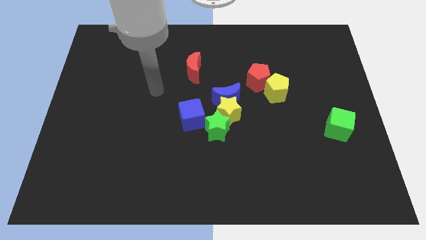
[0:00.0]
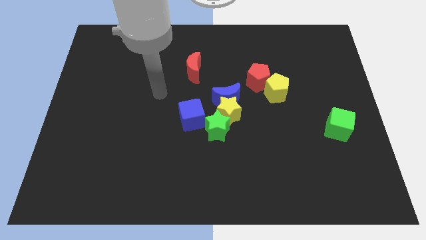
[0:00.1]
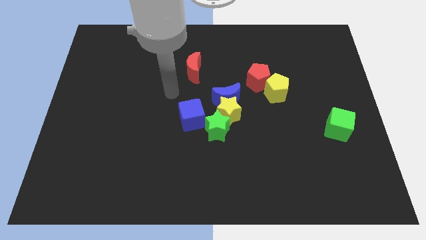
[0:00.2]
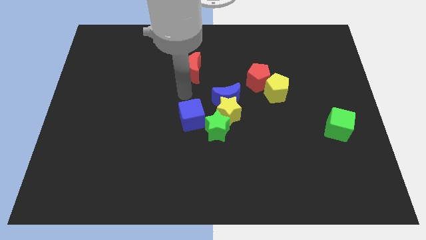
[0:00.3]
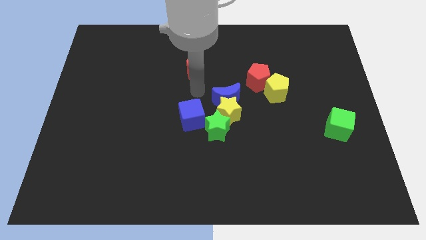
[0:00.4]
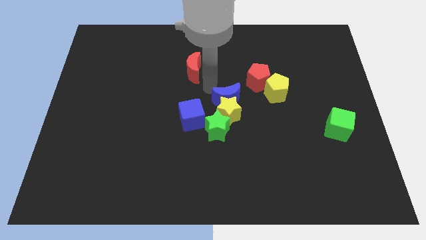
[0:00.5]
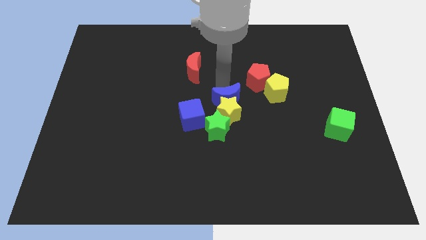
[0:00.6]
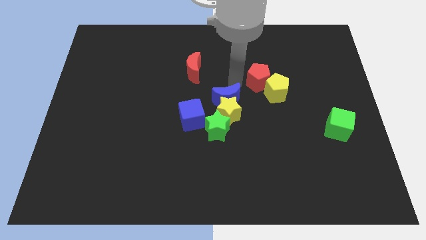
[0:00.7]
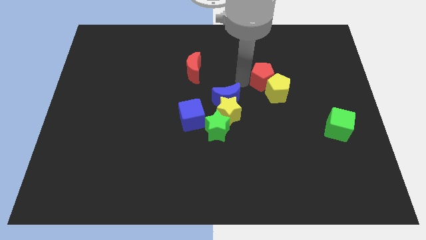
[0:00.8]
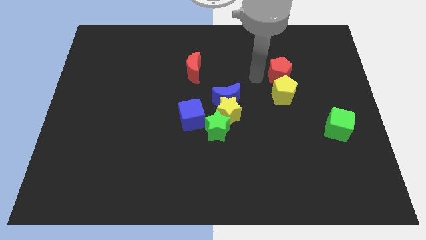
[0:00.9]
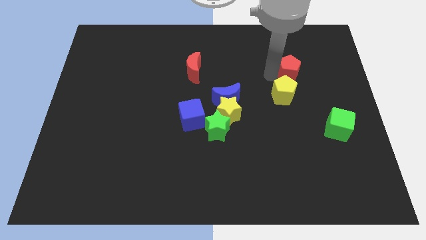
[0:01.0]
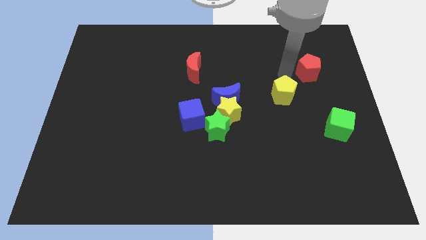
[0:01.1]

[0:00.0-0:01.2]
move the yellow pentagon away from the red pentagon

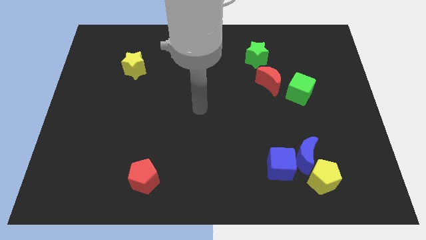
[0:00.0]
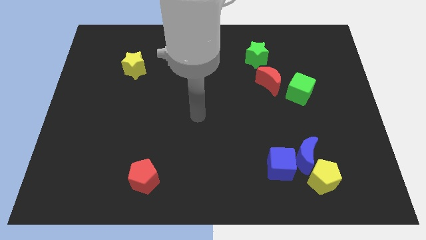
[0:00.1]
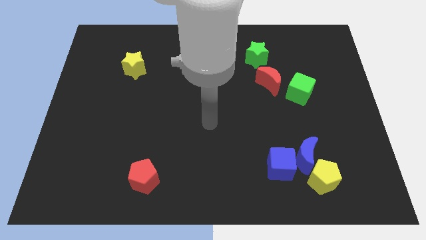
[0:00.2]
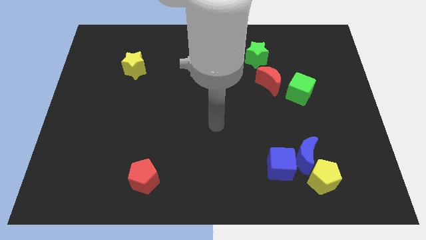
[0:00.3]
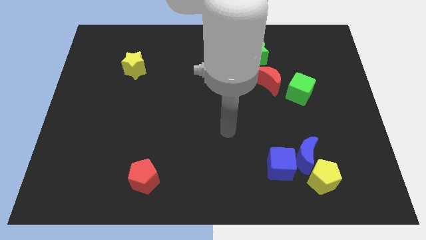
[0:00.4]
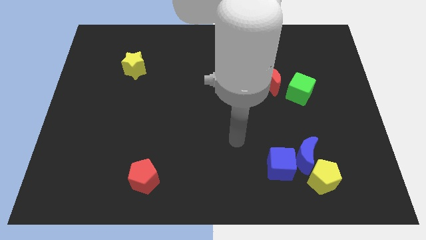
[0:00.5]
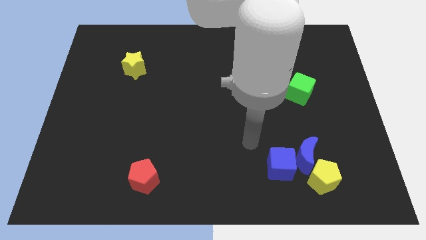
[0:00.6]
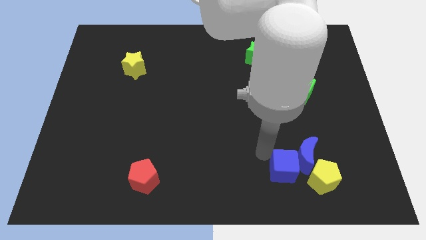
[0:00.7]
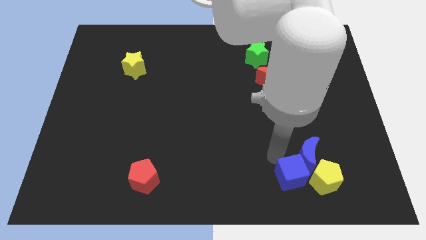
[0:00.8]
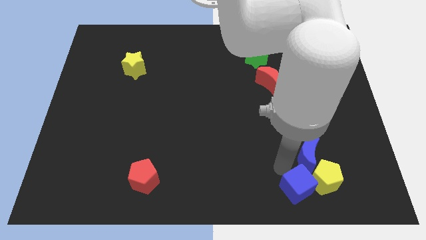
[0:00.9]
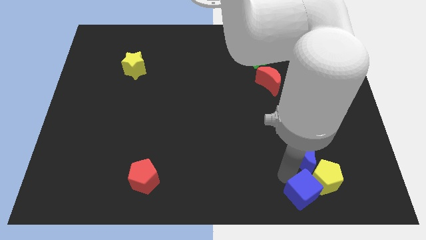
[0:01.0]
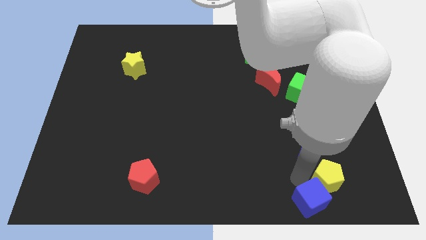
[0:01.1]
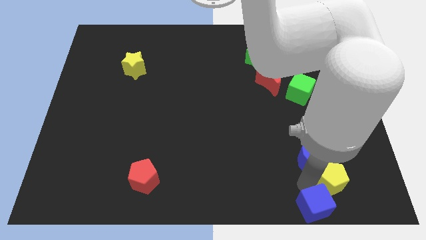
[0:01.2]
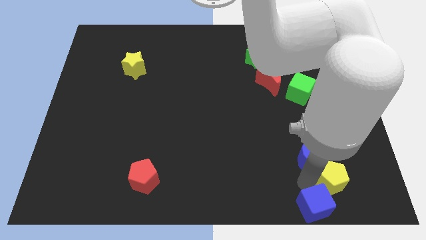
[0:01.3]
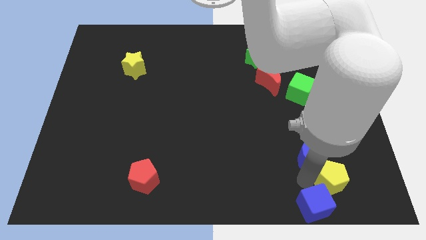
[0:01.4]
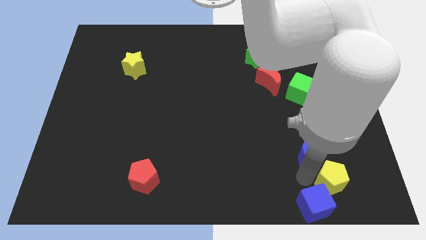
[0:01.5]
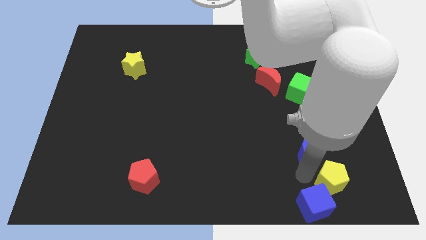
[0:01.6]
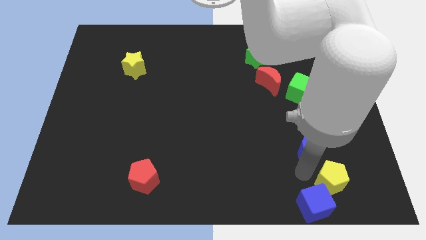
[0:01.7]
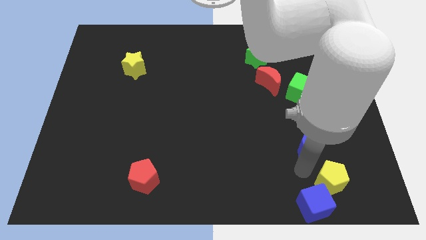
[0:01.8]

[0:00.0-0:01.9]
move the blue moon away from the blue cube and yellow pentagon

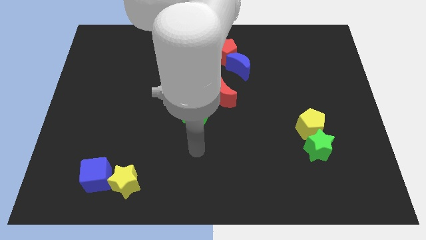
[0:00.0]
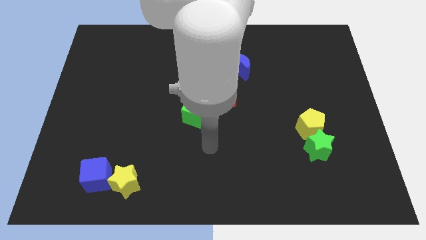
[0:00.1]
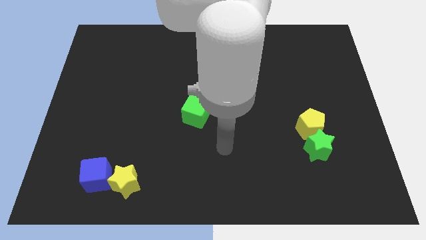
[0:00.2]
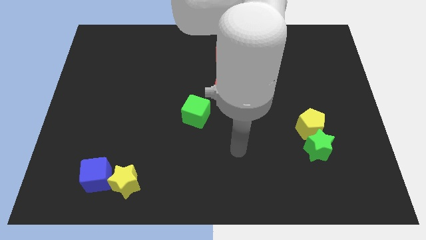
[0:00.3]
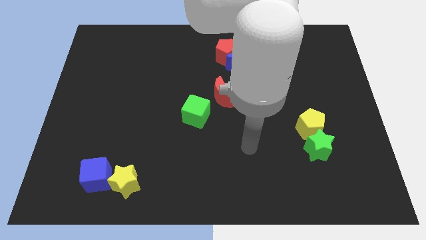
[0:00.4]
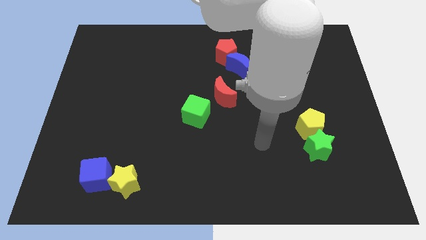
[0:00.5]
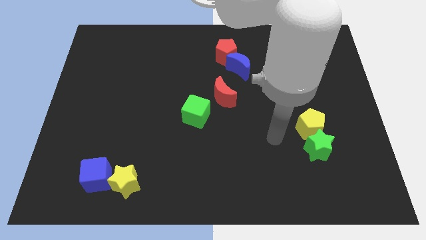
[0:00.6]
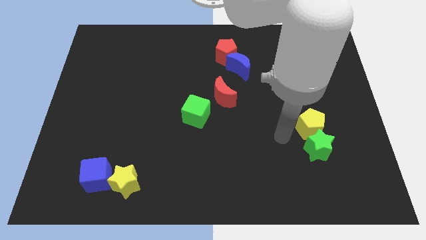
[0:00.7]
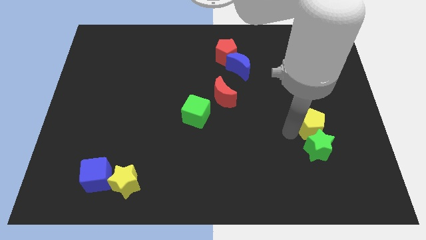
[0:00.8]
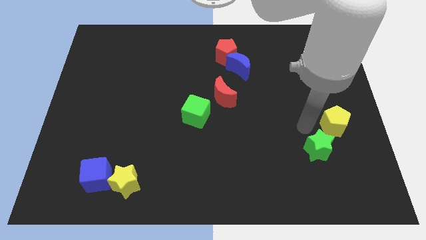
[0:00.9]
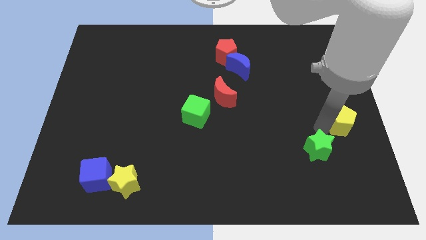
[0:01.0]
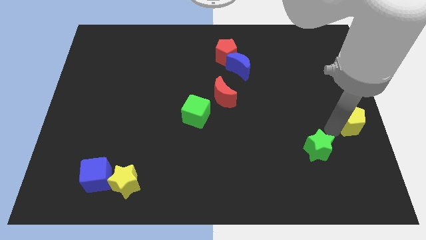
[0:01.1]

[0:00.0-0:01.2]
pull the green star apart from the yellow pentagon

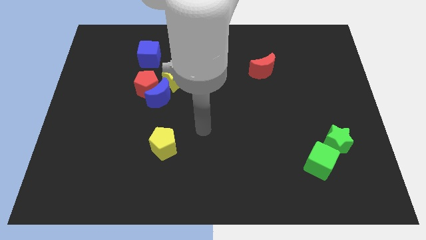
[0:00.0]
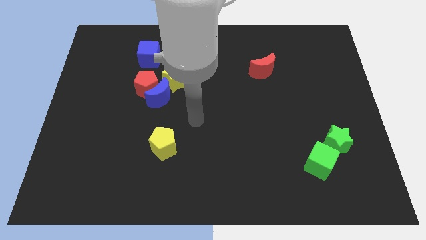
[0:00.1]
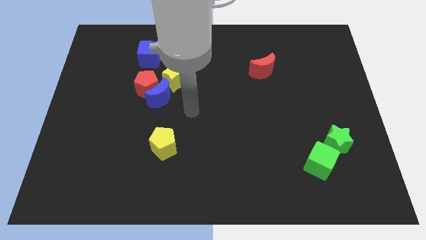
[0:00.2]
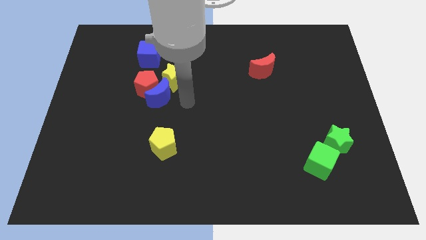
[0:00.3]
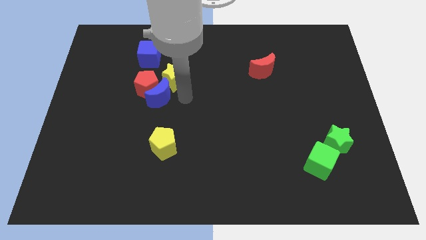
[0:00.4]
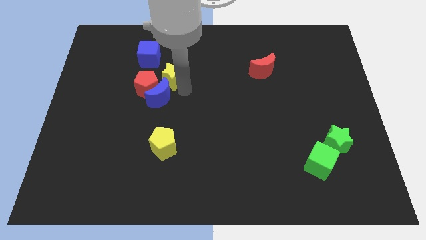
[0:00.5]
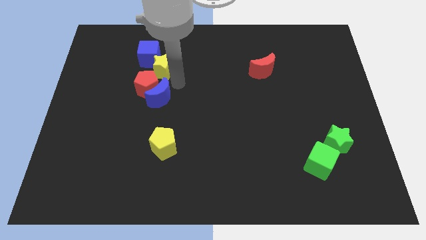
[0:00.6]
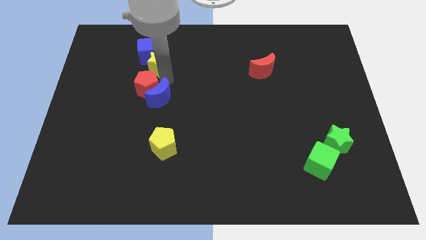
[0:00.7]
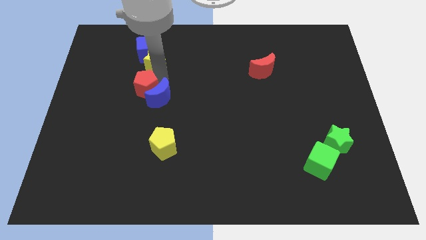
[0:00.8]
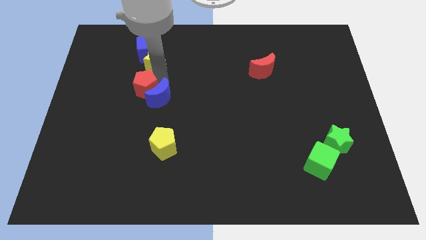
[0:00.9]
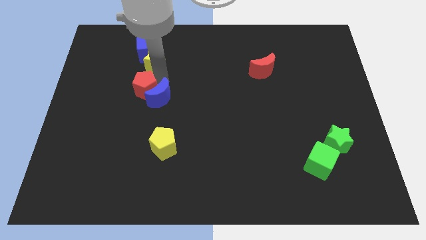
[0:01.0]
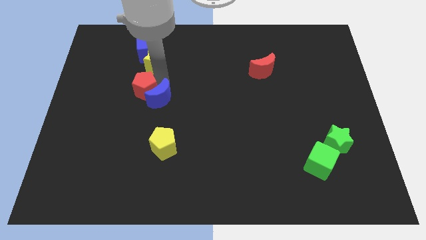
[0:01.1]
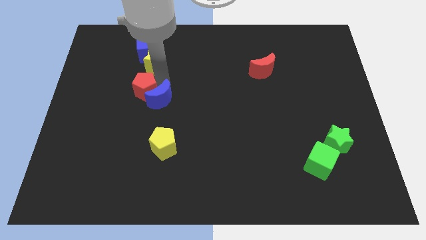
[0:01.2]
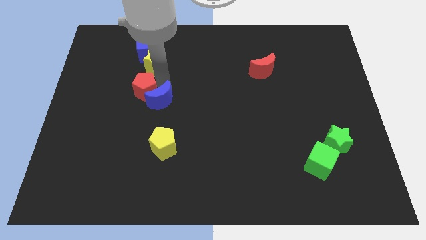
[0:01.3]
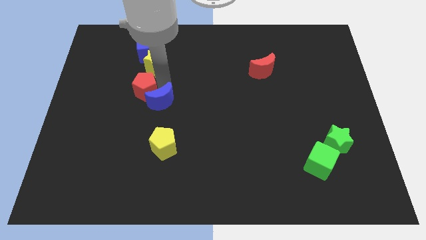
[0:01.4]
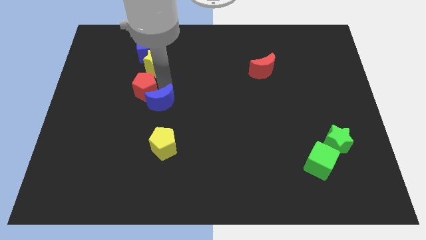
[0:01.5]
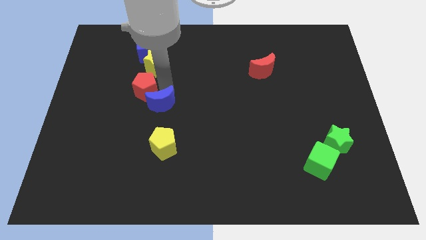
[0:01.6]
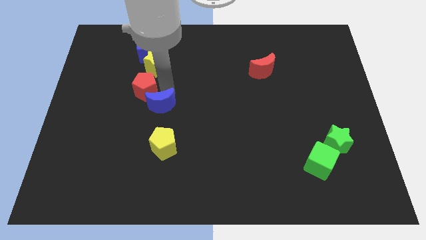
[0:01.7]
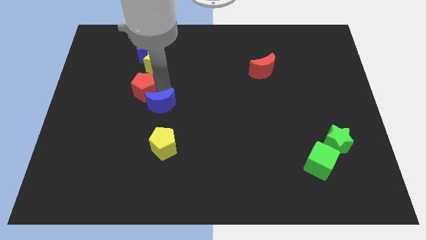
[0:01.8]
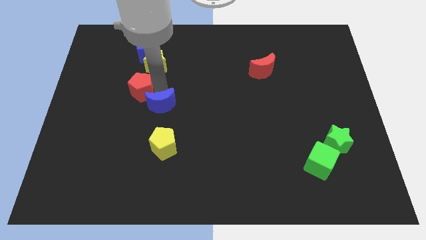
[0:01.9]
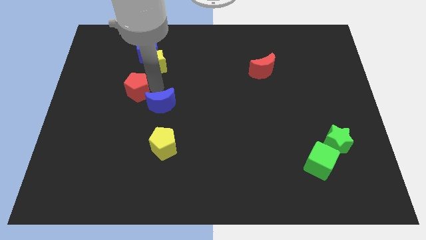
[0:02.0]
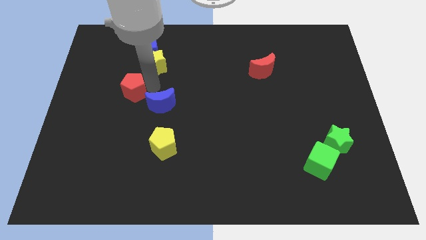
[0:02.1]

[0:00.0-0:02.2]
separate the blue moon from the red pentagon and yellow star

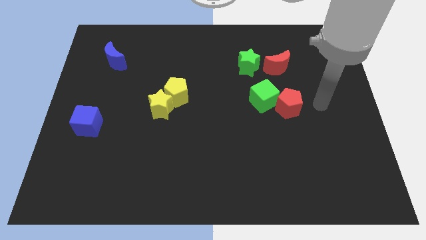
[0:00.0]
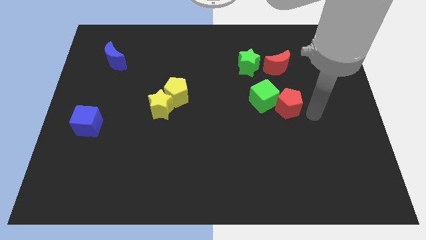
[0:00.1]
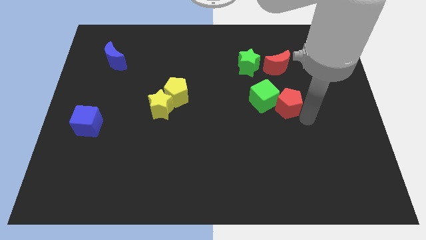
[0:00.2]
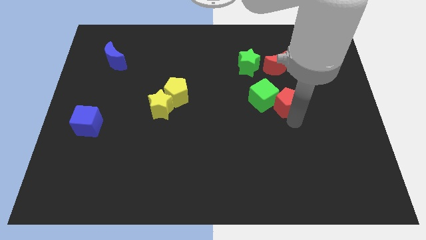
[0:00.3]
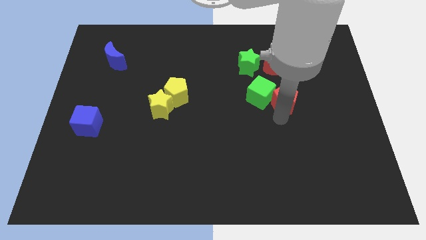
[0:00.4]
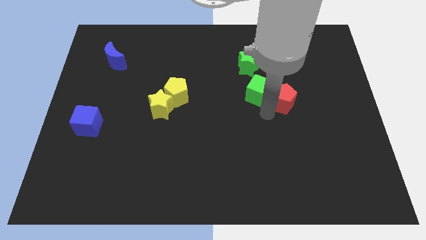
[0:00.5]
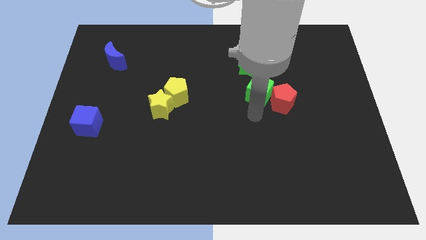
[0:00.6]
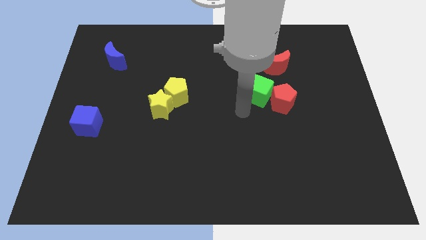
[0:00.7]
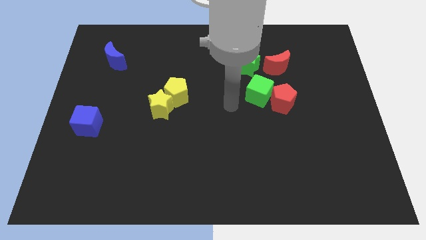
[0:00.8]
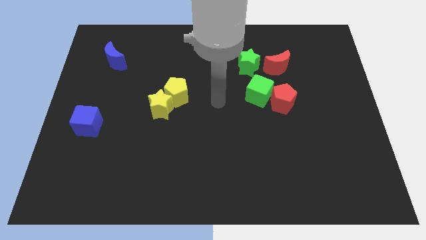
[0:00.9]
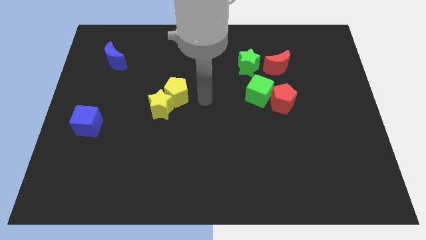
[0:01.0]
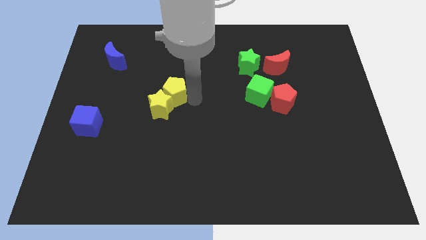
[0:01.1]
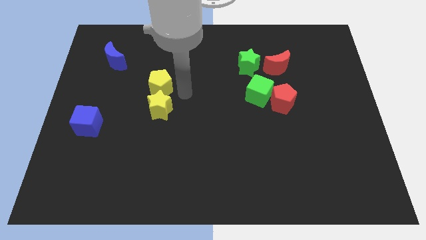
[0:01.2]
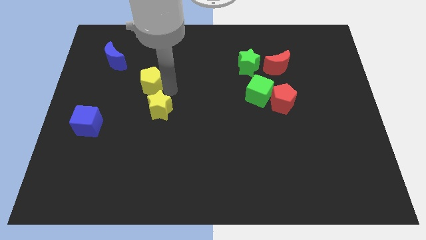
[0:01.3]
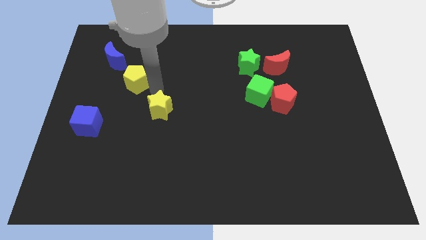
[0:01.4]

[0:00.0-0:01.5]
separate the yellow star from the yellow pentagon

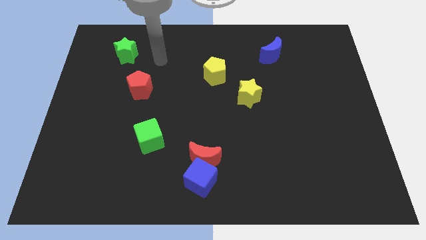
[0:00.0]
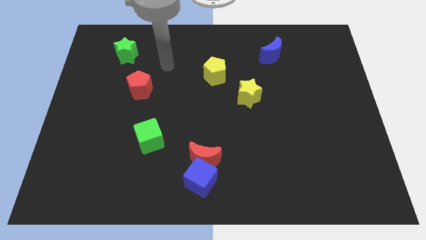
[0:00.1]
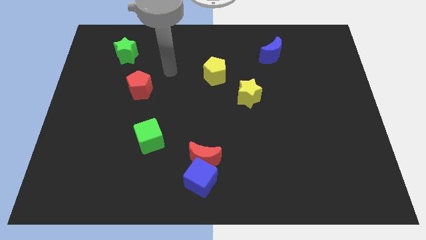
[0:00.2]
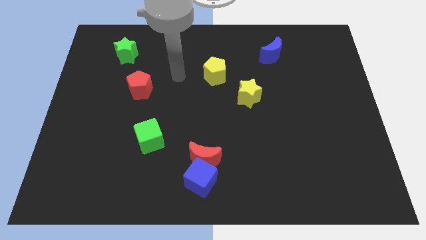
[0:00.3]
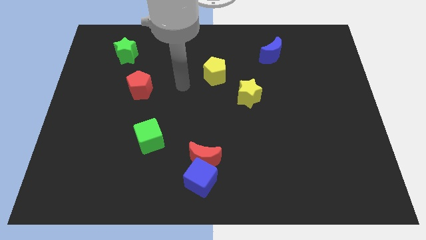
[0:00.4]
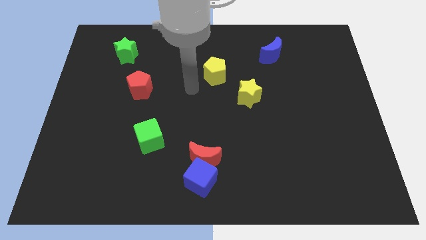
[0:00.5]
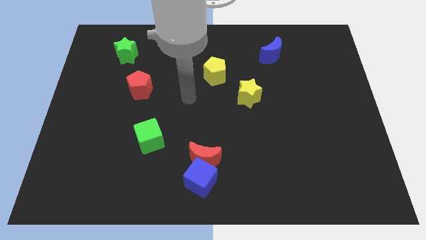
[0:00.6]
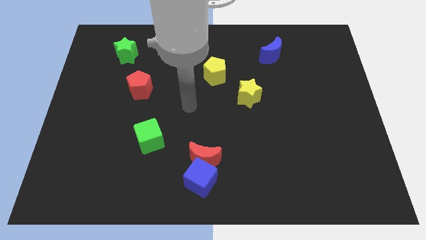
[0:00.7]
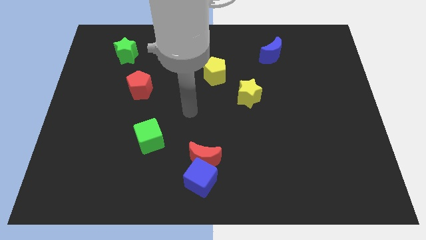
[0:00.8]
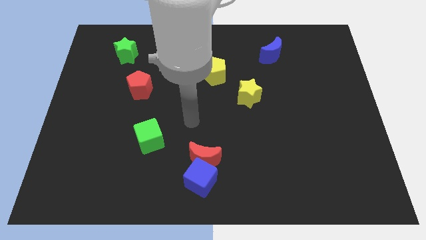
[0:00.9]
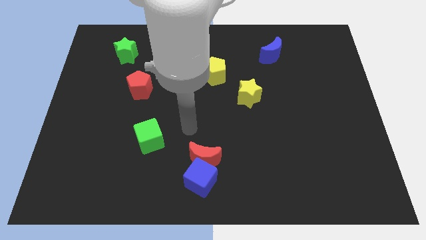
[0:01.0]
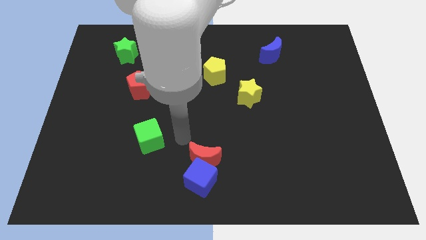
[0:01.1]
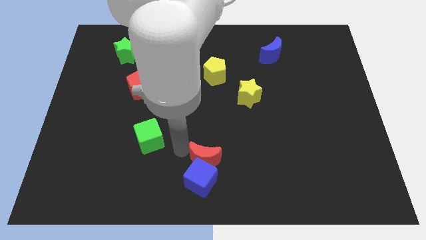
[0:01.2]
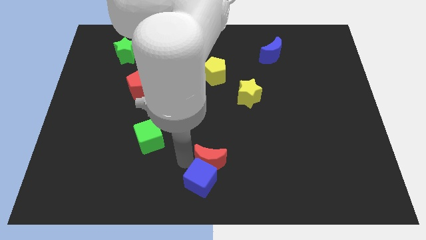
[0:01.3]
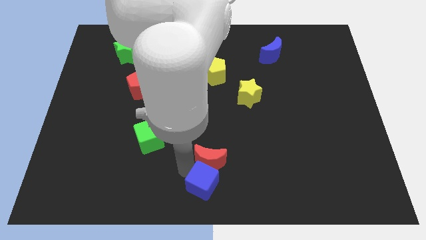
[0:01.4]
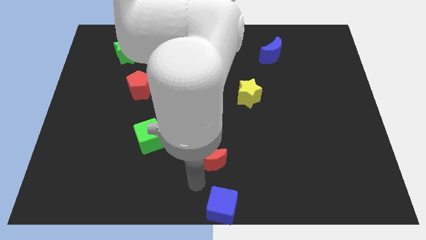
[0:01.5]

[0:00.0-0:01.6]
pull the red moon apart from the blue cube
